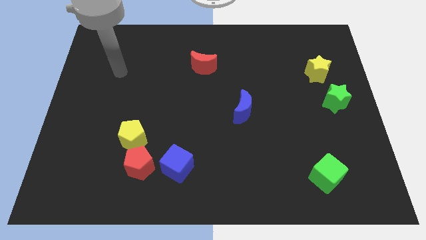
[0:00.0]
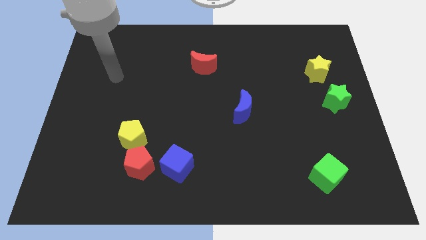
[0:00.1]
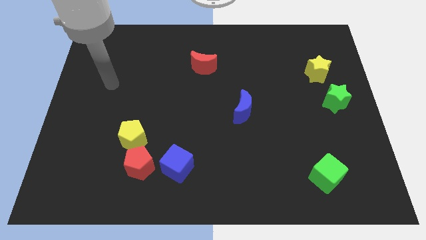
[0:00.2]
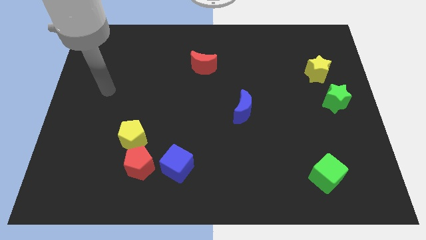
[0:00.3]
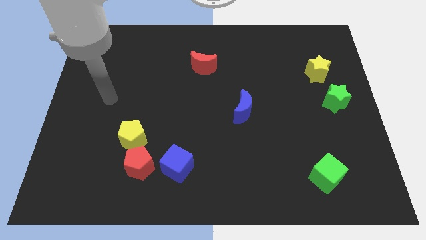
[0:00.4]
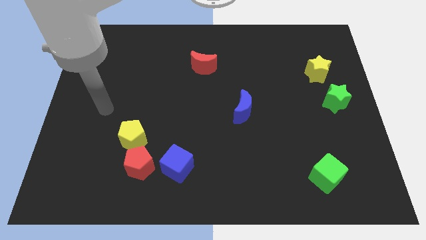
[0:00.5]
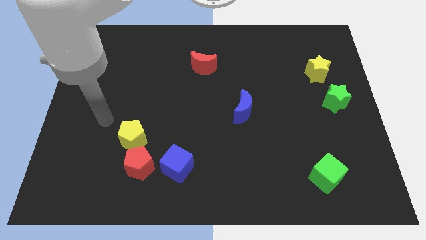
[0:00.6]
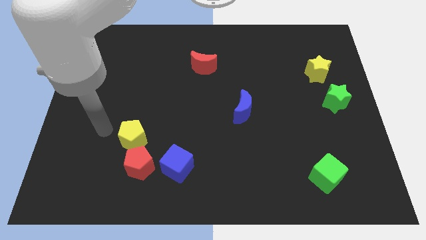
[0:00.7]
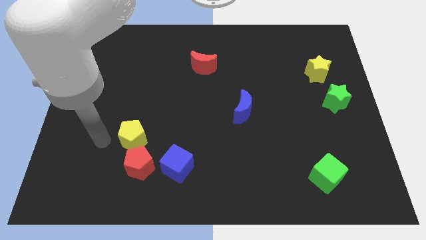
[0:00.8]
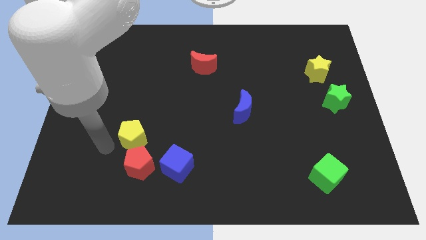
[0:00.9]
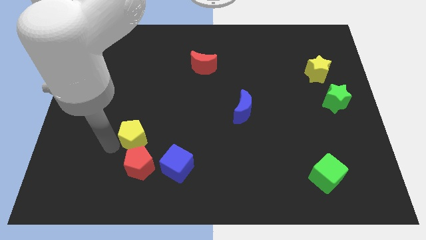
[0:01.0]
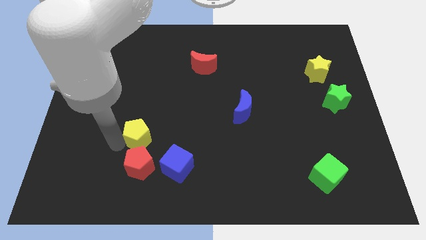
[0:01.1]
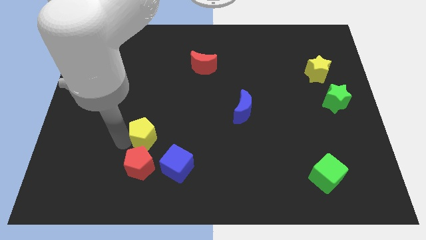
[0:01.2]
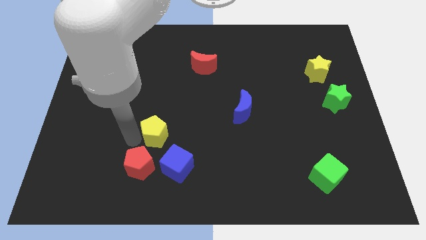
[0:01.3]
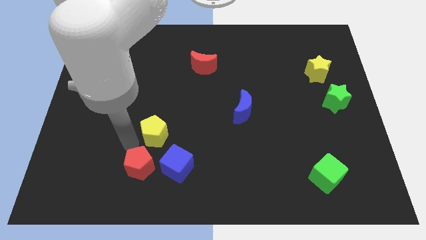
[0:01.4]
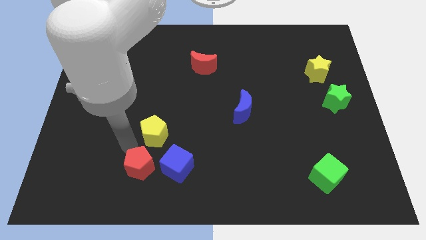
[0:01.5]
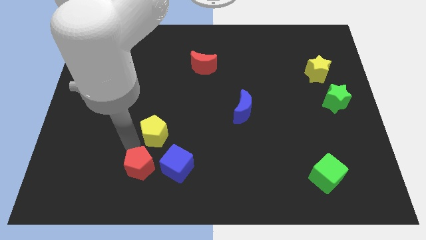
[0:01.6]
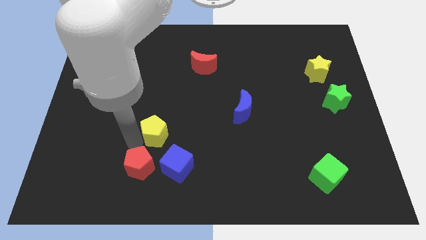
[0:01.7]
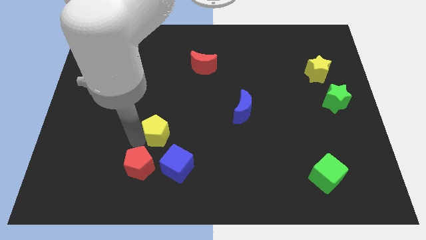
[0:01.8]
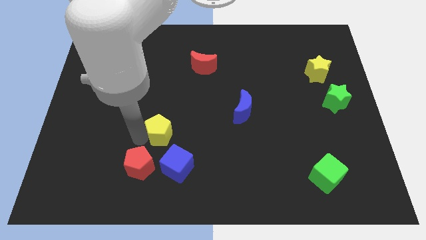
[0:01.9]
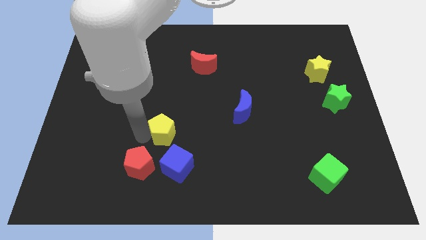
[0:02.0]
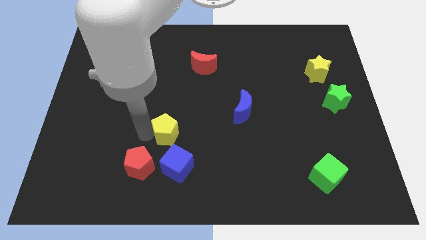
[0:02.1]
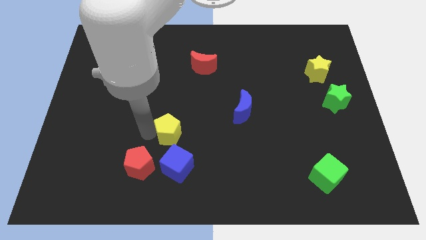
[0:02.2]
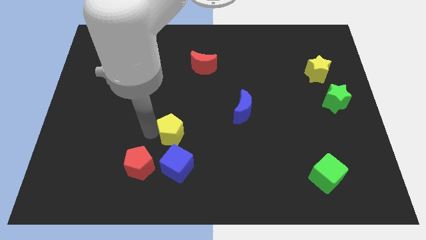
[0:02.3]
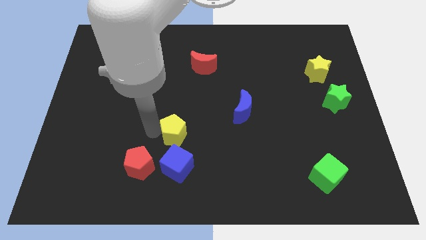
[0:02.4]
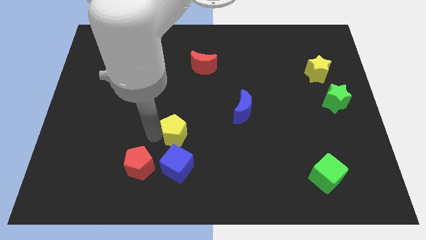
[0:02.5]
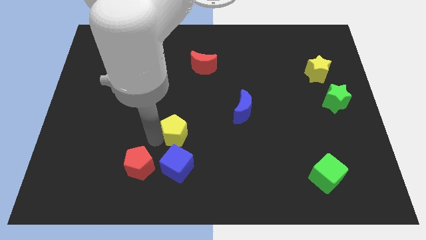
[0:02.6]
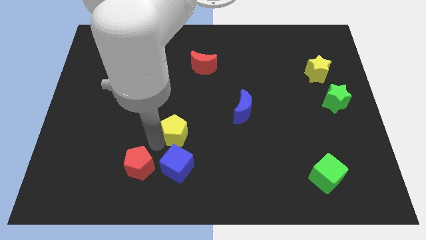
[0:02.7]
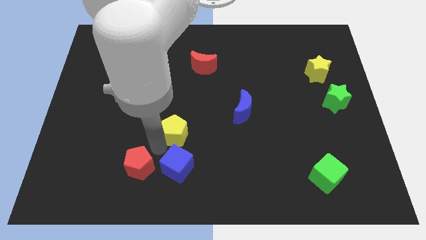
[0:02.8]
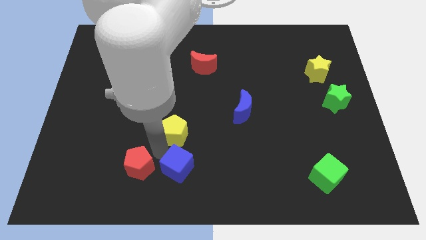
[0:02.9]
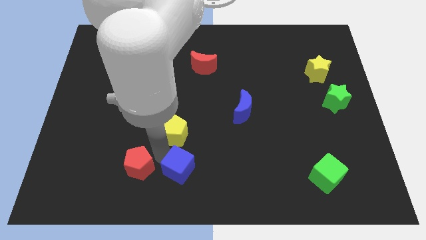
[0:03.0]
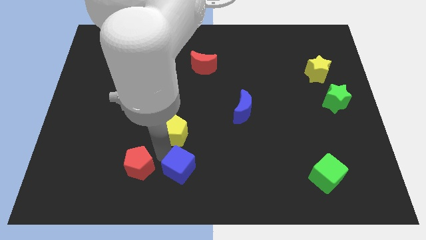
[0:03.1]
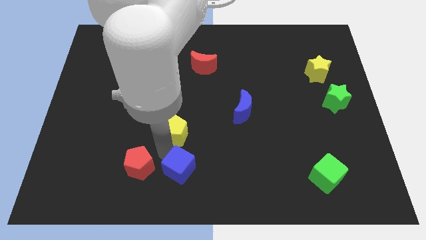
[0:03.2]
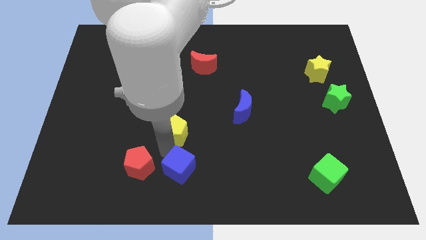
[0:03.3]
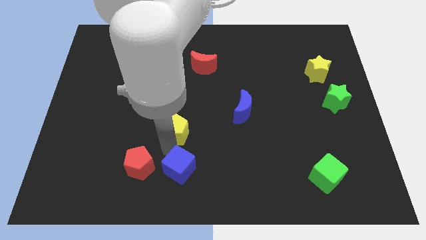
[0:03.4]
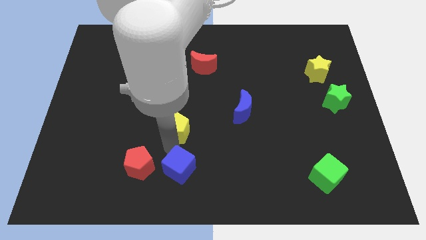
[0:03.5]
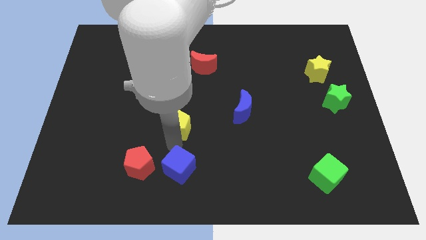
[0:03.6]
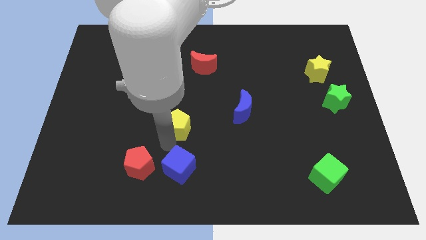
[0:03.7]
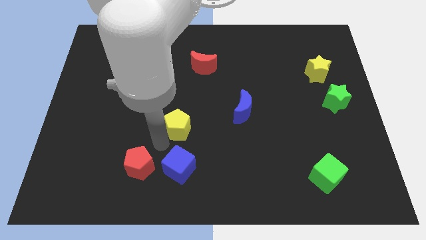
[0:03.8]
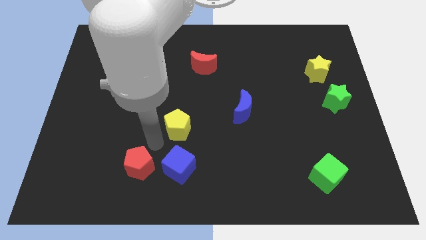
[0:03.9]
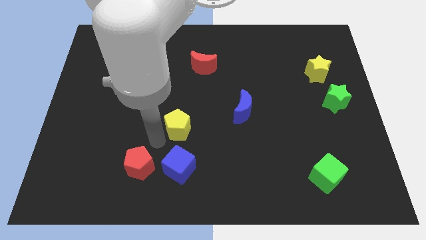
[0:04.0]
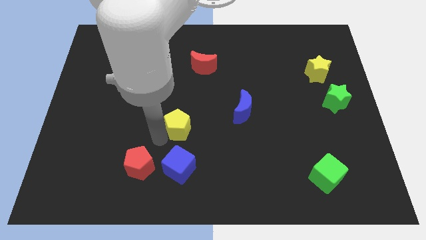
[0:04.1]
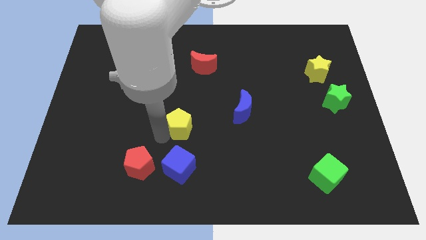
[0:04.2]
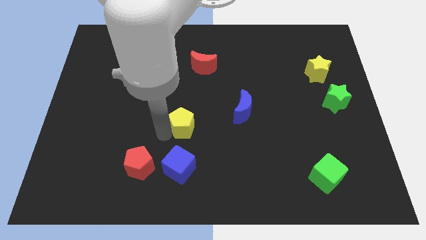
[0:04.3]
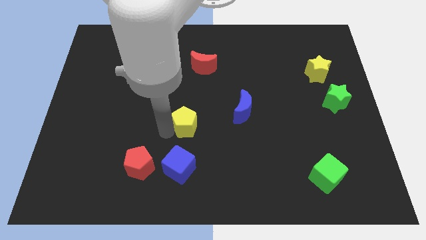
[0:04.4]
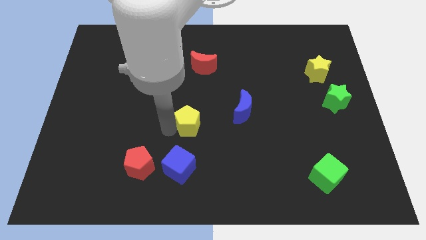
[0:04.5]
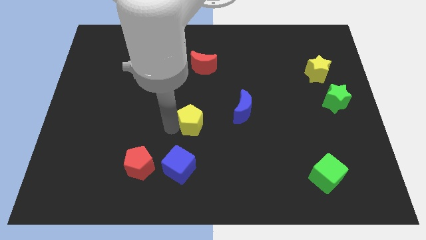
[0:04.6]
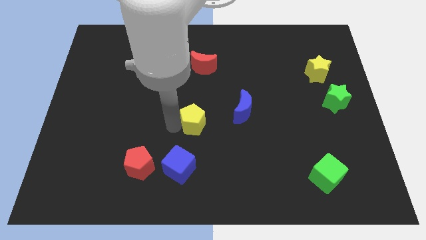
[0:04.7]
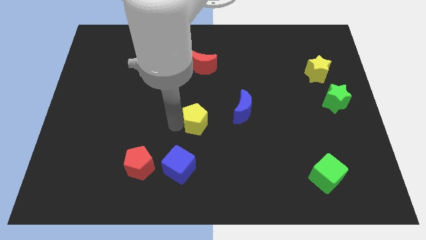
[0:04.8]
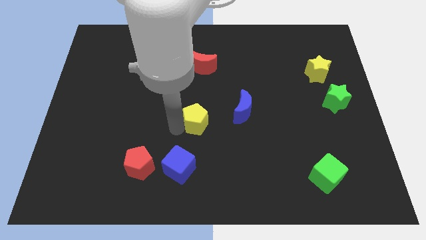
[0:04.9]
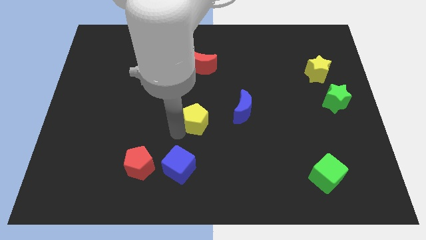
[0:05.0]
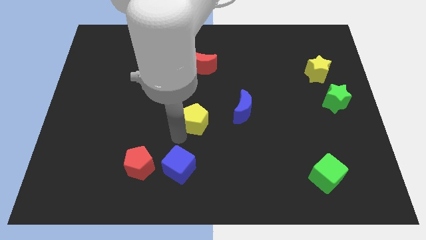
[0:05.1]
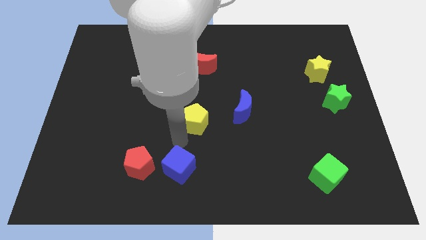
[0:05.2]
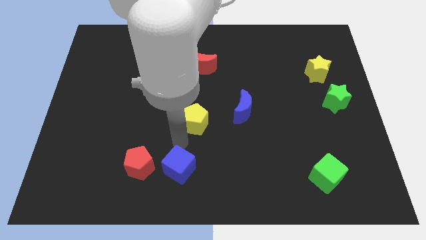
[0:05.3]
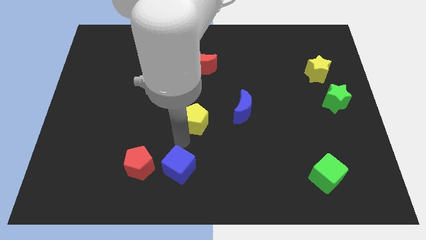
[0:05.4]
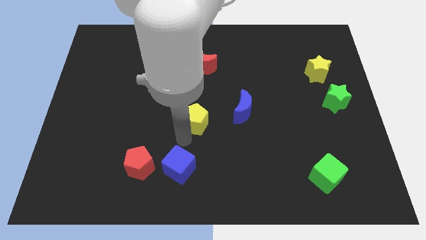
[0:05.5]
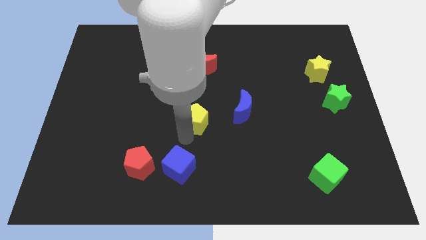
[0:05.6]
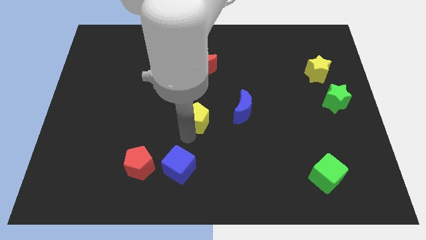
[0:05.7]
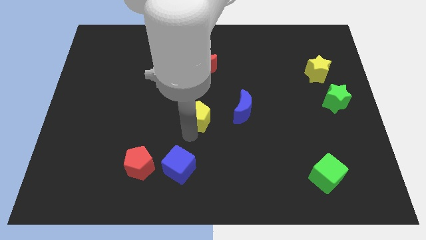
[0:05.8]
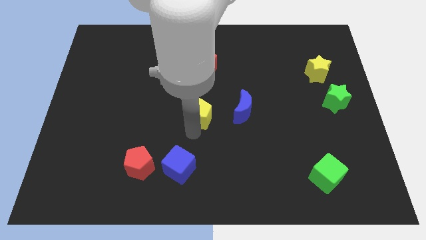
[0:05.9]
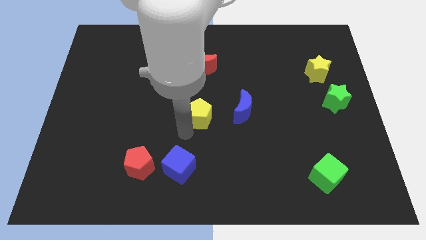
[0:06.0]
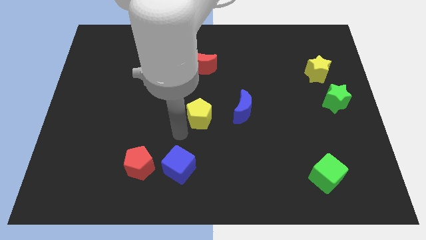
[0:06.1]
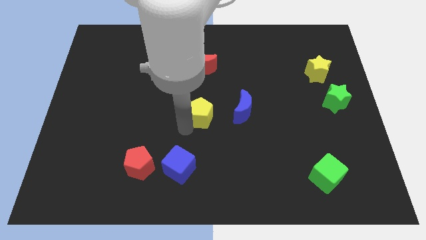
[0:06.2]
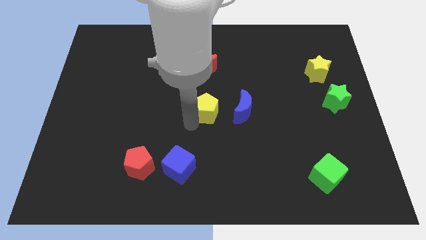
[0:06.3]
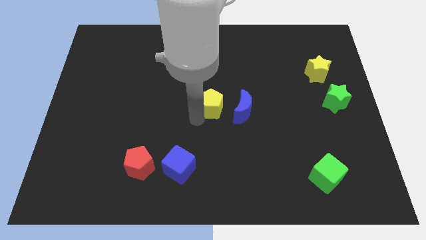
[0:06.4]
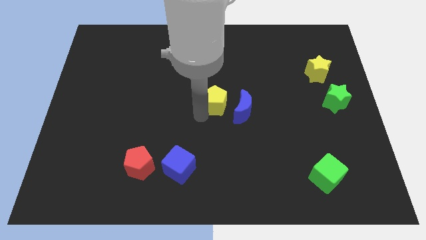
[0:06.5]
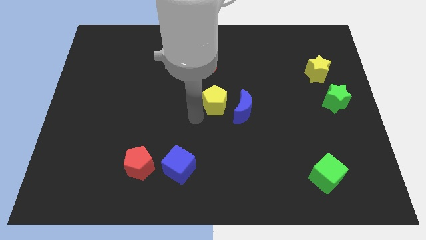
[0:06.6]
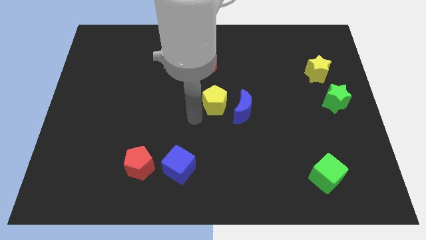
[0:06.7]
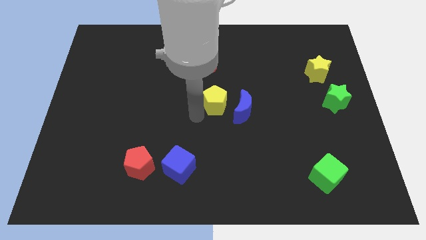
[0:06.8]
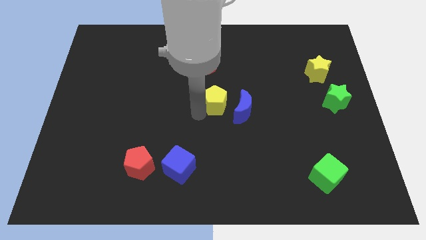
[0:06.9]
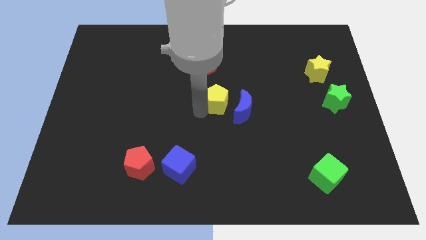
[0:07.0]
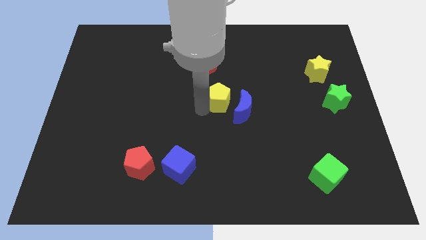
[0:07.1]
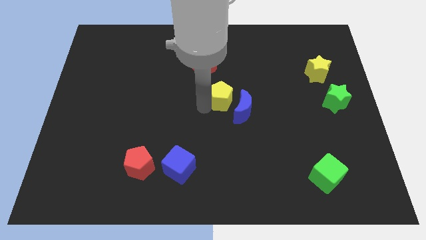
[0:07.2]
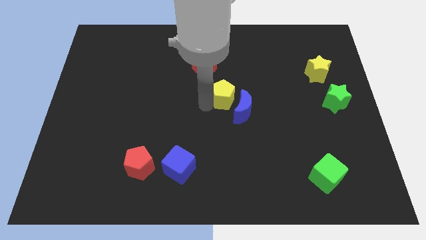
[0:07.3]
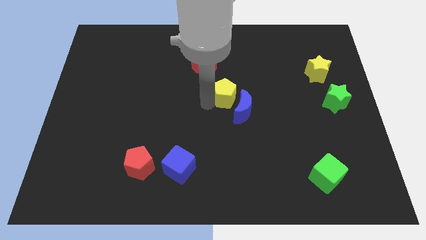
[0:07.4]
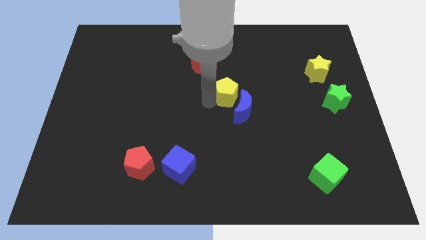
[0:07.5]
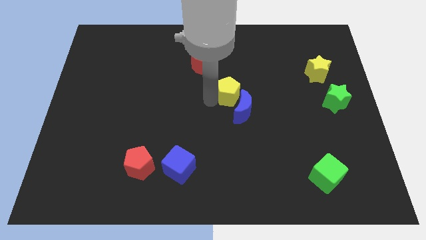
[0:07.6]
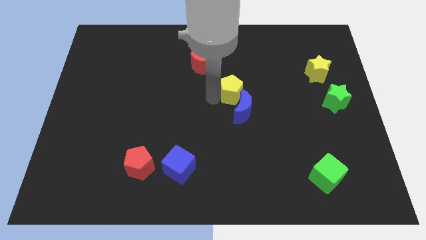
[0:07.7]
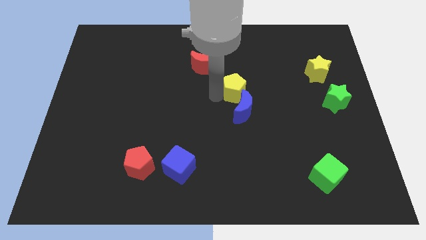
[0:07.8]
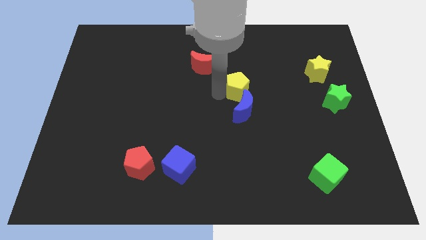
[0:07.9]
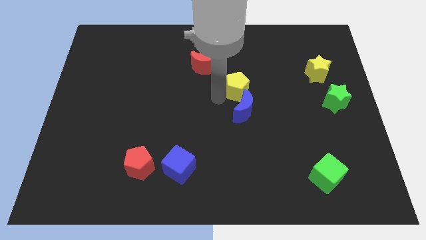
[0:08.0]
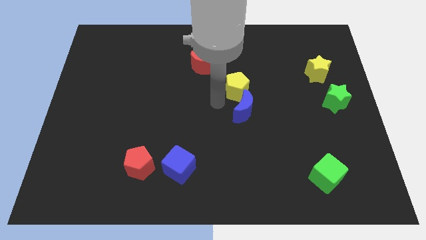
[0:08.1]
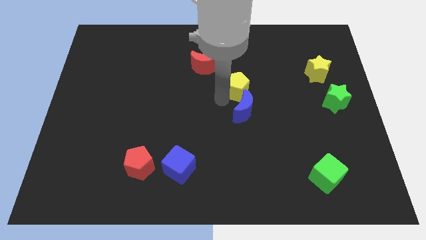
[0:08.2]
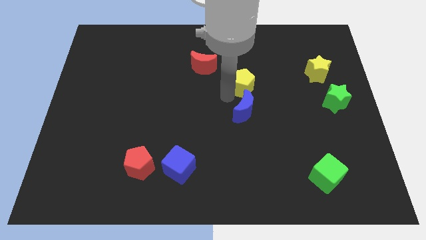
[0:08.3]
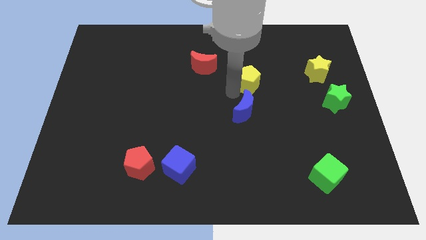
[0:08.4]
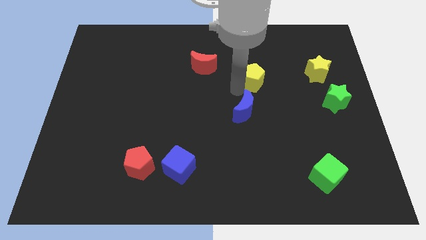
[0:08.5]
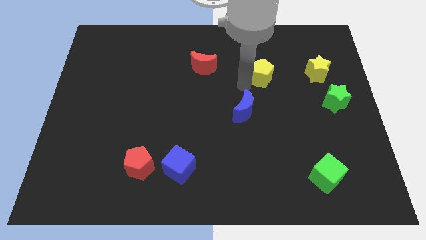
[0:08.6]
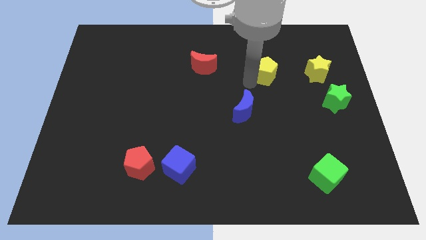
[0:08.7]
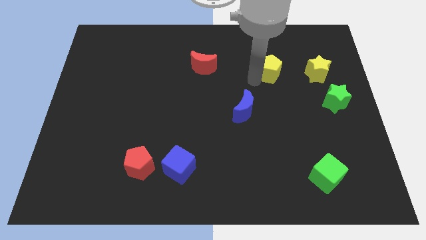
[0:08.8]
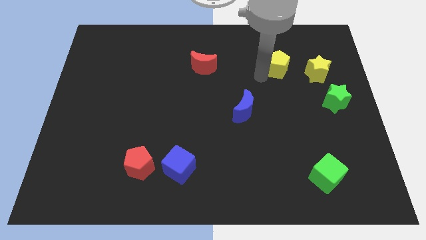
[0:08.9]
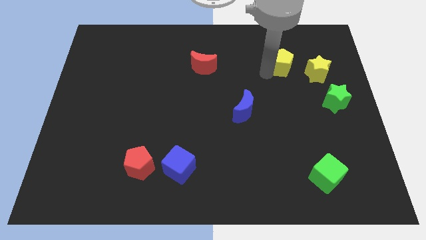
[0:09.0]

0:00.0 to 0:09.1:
put the yellow pentagon to the top left side of the yellow star
